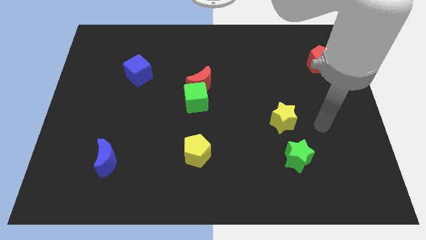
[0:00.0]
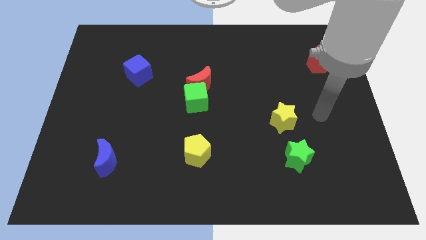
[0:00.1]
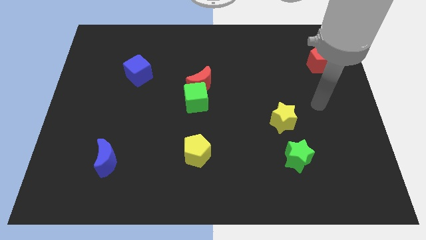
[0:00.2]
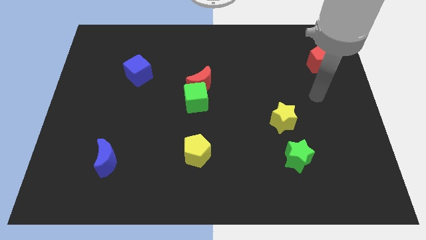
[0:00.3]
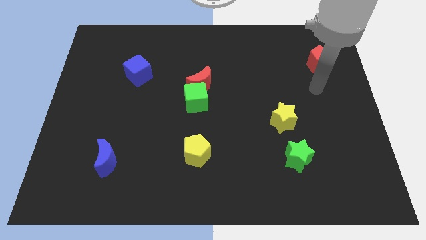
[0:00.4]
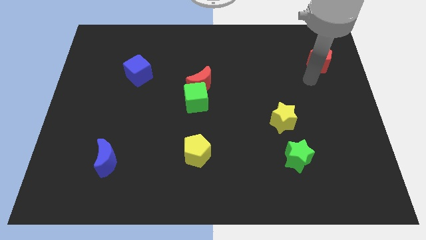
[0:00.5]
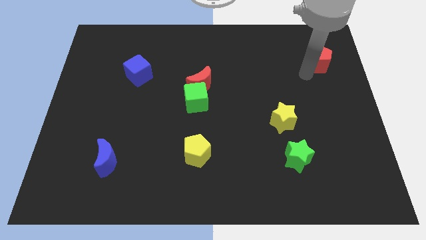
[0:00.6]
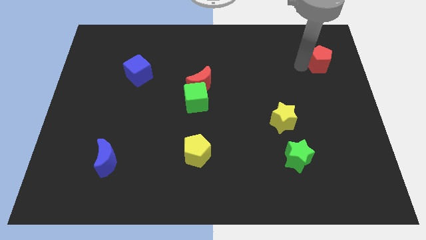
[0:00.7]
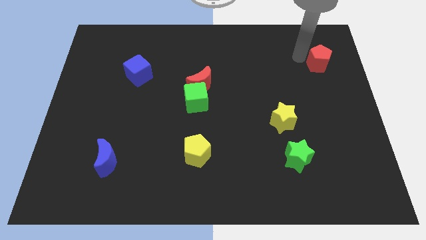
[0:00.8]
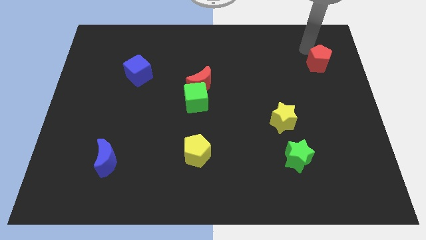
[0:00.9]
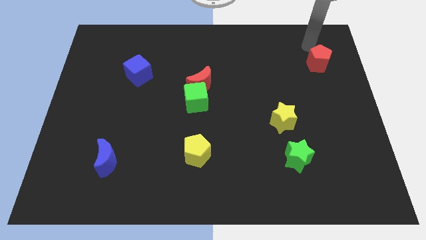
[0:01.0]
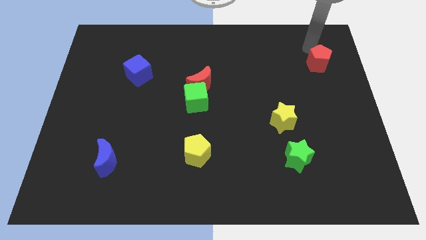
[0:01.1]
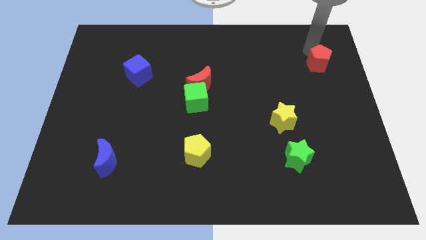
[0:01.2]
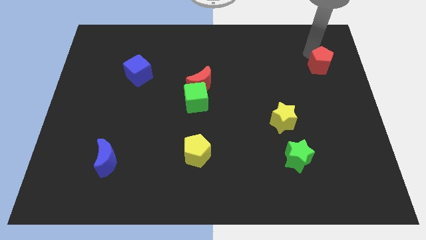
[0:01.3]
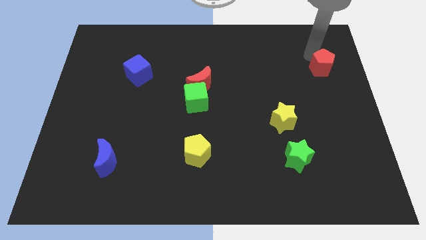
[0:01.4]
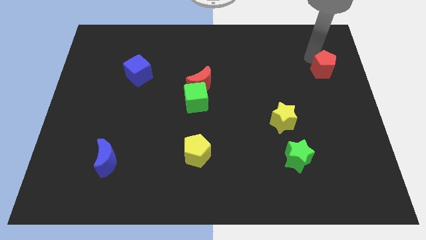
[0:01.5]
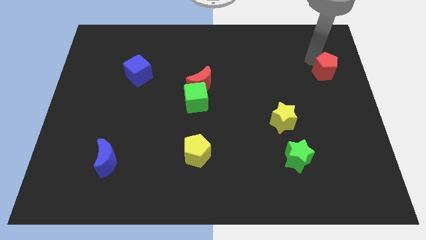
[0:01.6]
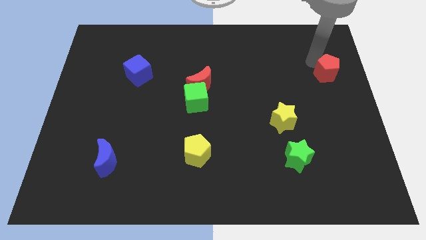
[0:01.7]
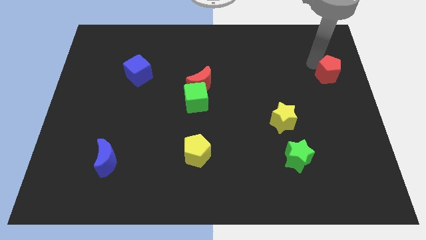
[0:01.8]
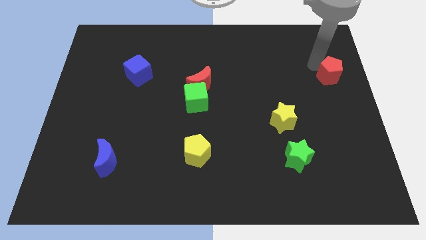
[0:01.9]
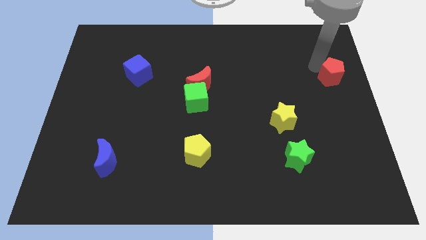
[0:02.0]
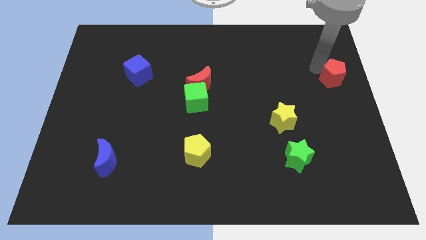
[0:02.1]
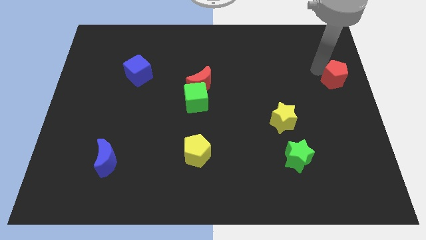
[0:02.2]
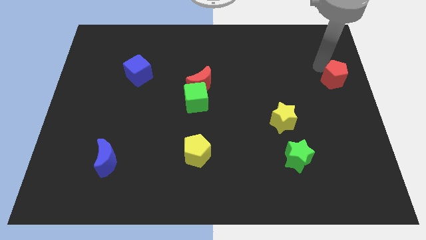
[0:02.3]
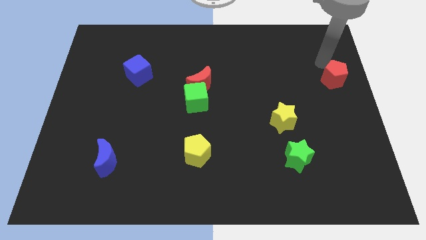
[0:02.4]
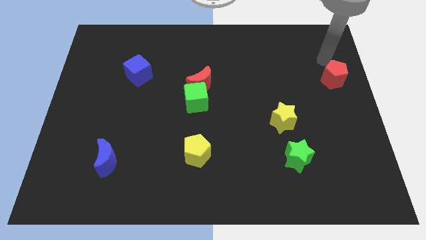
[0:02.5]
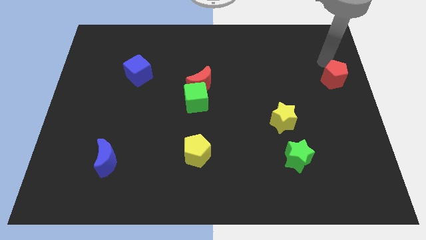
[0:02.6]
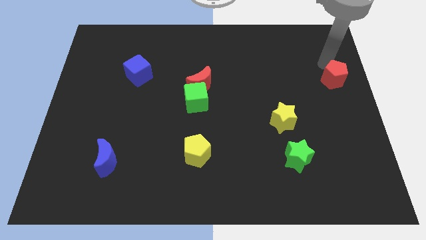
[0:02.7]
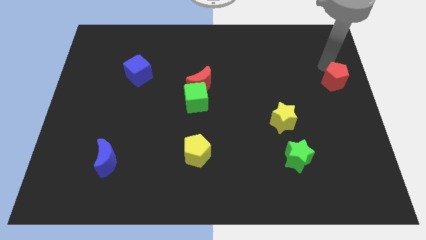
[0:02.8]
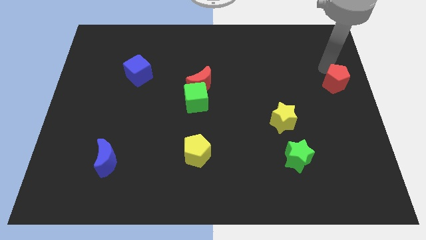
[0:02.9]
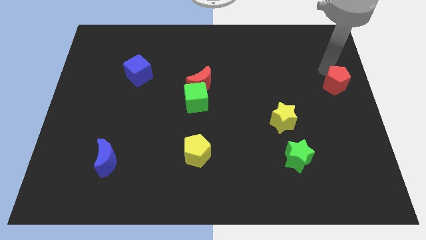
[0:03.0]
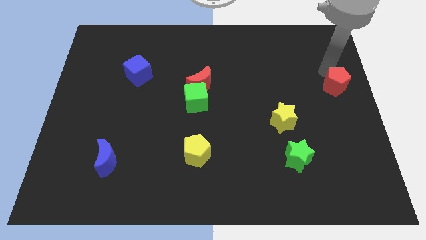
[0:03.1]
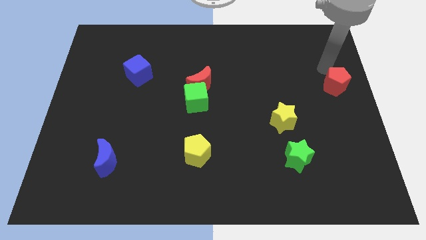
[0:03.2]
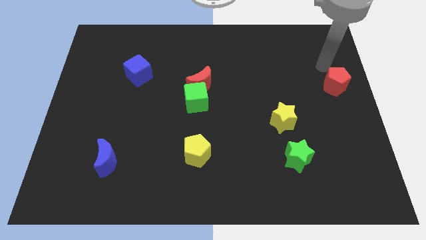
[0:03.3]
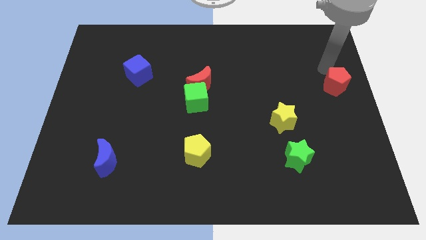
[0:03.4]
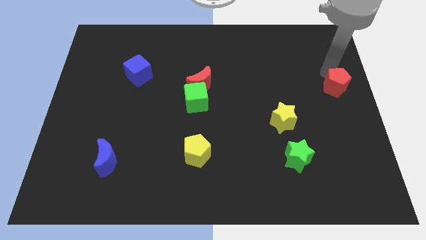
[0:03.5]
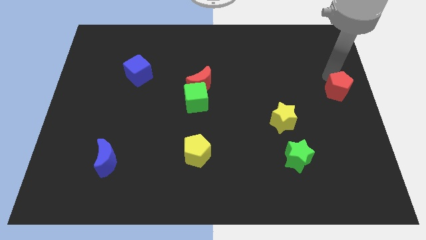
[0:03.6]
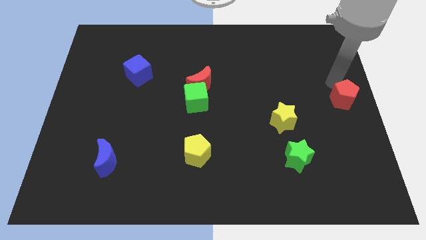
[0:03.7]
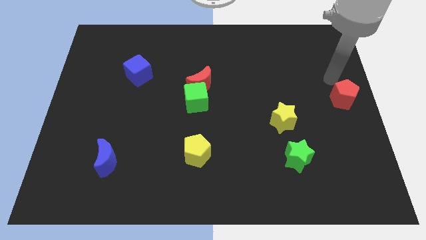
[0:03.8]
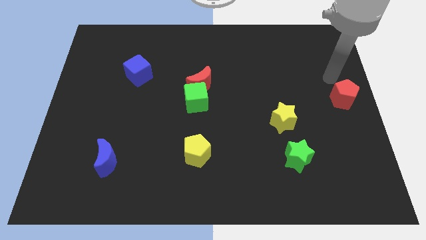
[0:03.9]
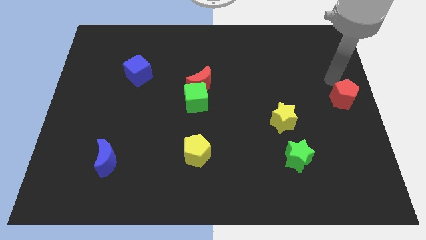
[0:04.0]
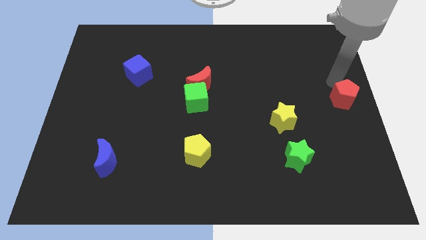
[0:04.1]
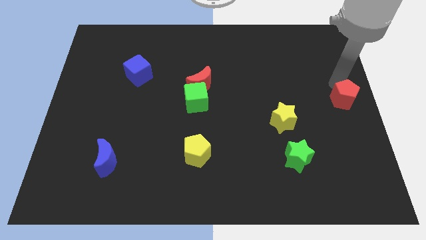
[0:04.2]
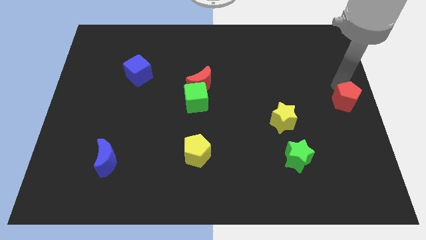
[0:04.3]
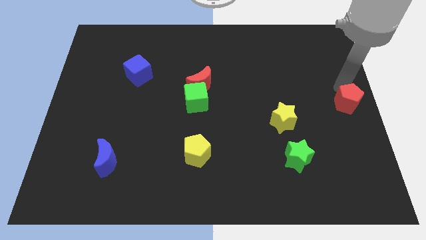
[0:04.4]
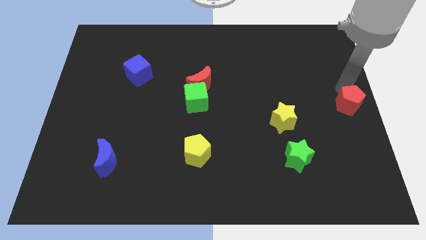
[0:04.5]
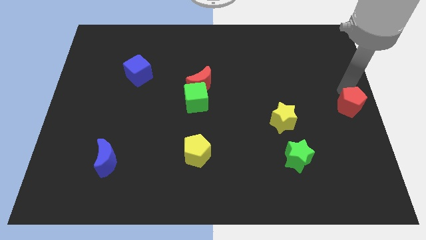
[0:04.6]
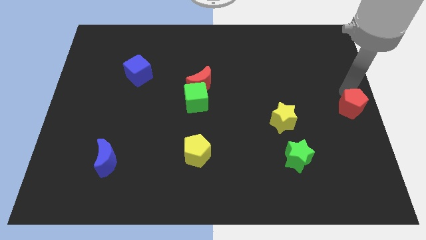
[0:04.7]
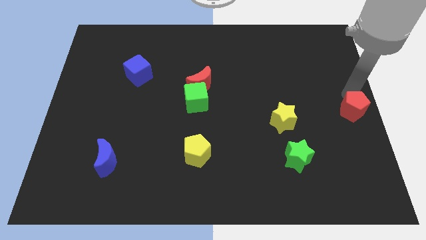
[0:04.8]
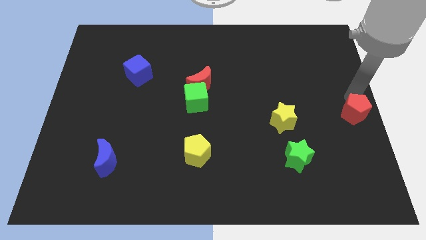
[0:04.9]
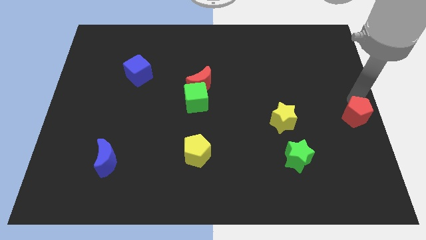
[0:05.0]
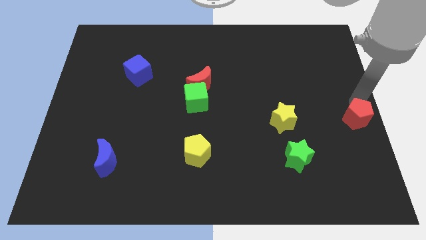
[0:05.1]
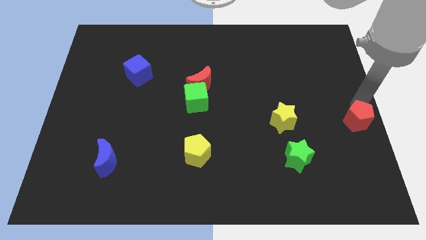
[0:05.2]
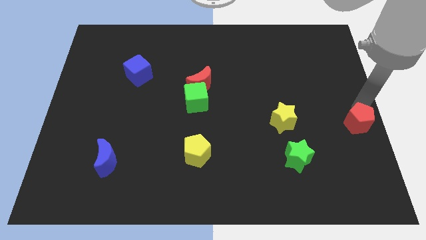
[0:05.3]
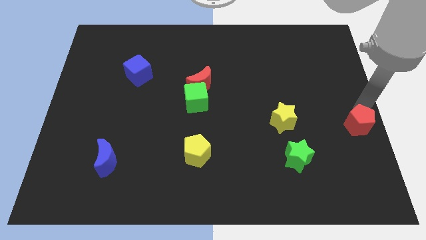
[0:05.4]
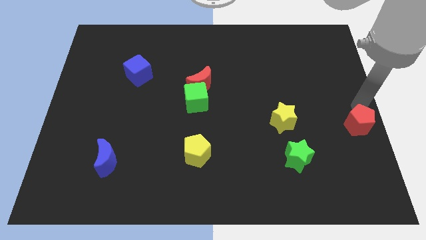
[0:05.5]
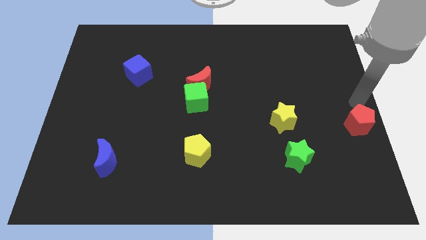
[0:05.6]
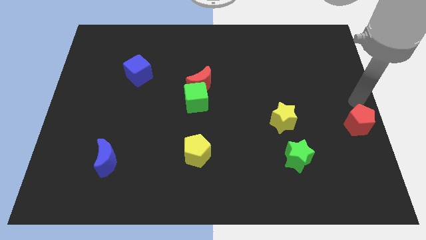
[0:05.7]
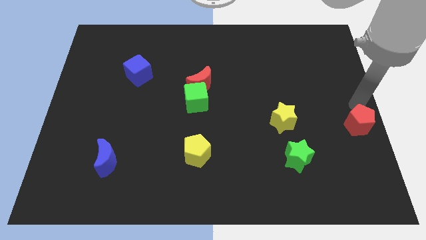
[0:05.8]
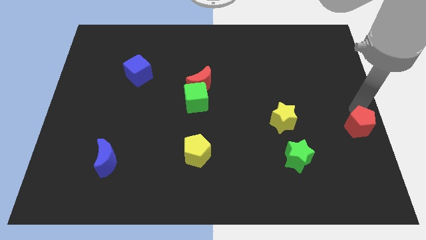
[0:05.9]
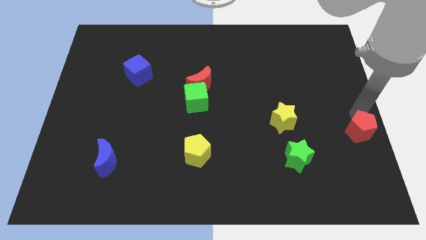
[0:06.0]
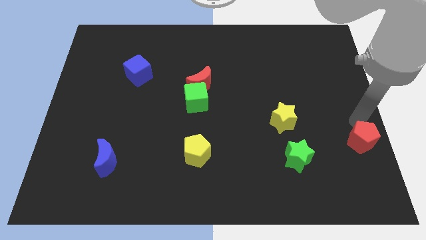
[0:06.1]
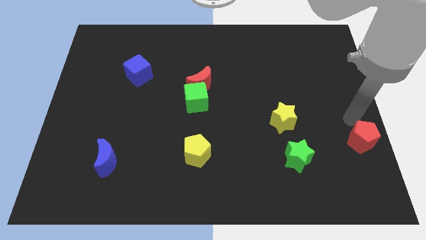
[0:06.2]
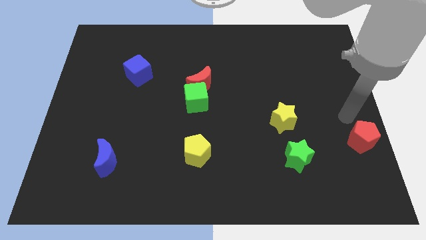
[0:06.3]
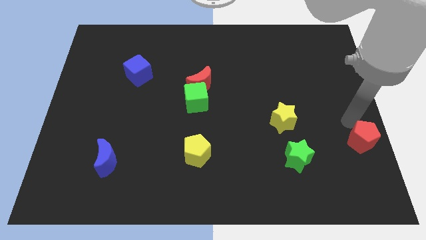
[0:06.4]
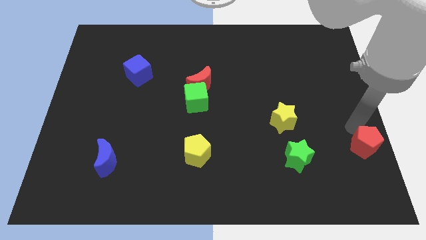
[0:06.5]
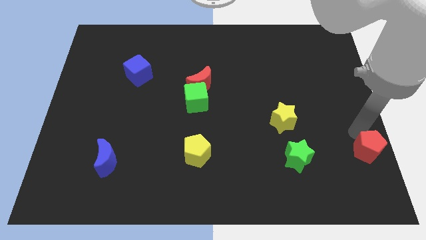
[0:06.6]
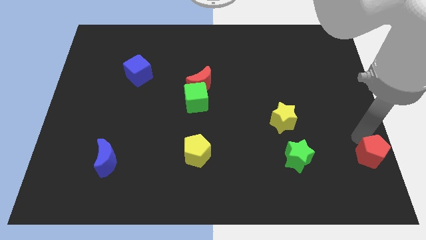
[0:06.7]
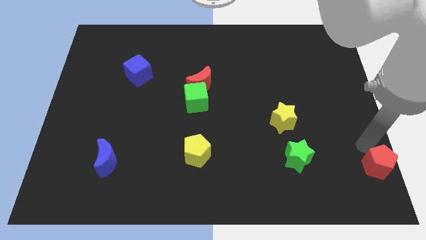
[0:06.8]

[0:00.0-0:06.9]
push the red pentagon to the bottom right of the board

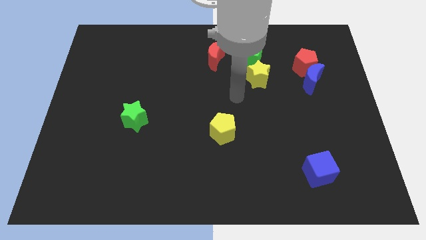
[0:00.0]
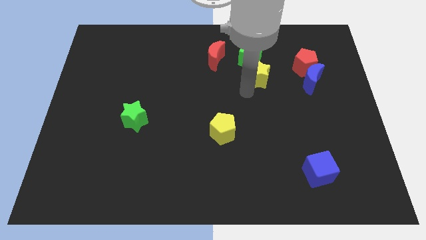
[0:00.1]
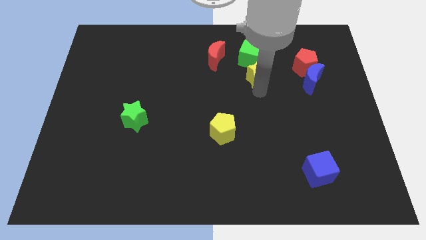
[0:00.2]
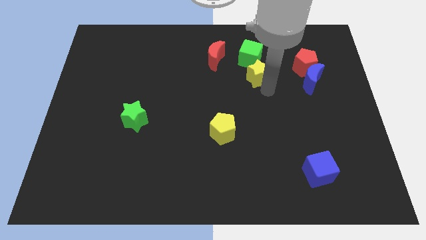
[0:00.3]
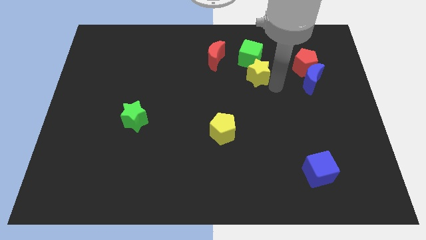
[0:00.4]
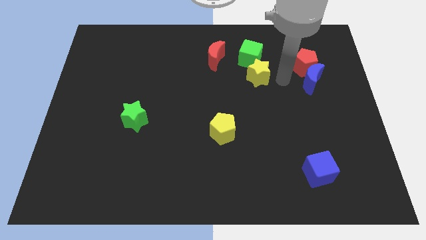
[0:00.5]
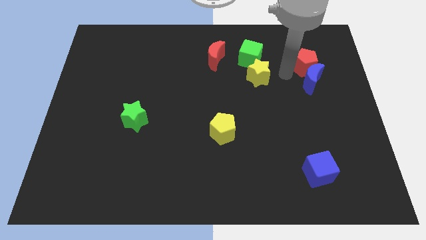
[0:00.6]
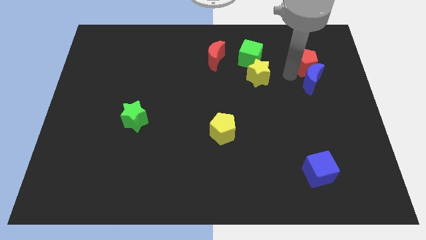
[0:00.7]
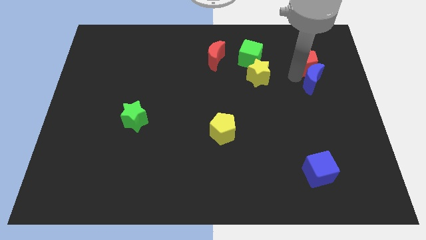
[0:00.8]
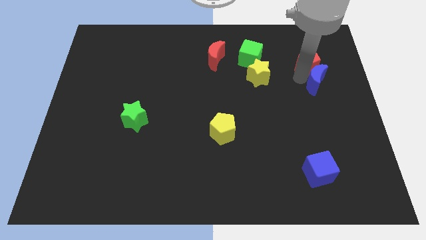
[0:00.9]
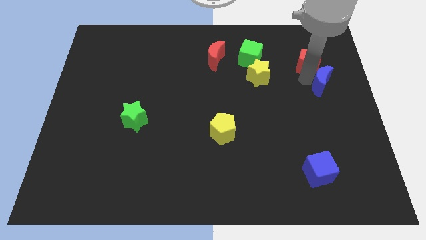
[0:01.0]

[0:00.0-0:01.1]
slide the blue moon to the right side
